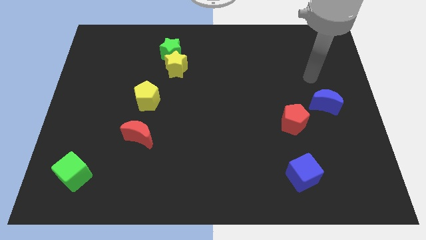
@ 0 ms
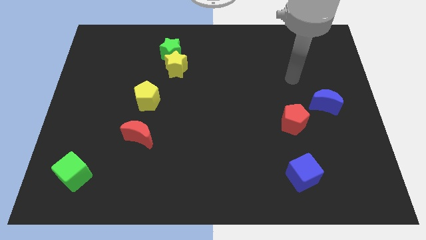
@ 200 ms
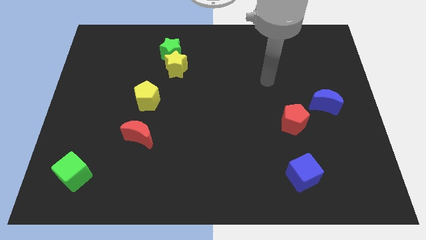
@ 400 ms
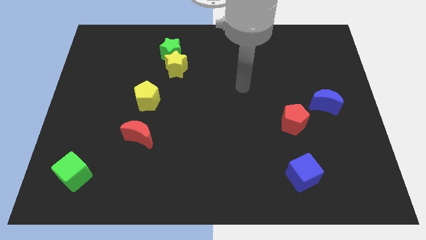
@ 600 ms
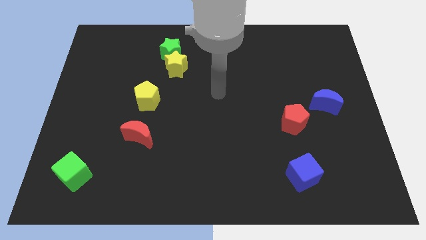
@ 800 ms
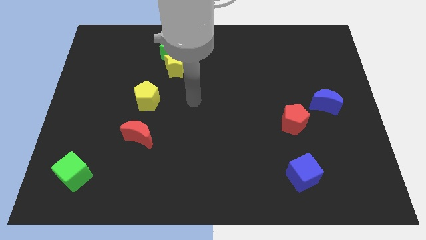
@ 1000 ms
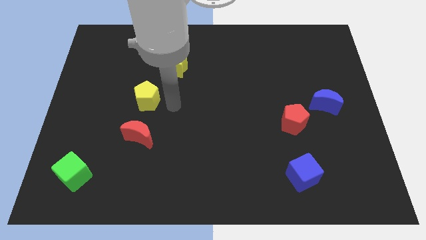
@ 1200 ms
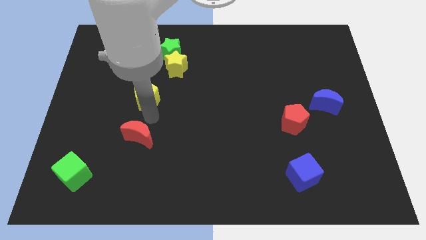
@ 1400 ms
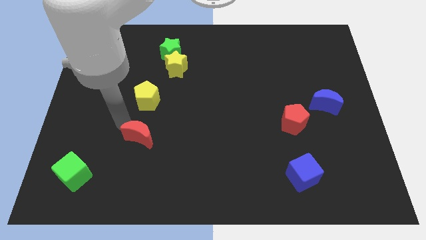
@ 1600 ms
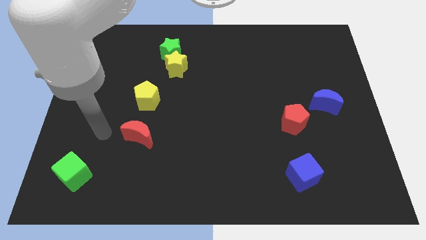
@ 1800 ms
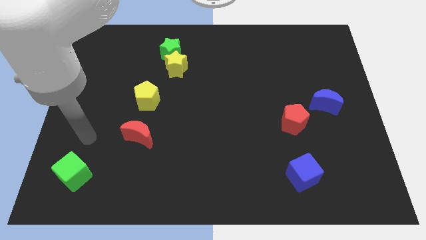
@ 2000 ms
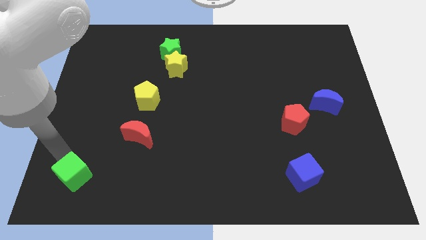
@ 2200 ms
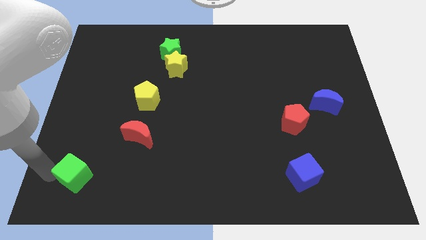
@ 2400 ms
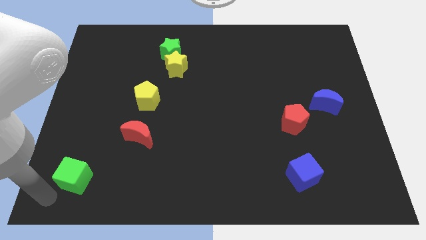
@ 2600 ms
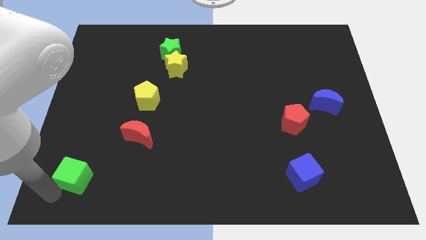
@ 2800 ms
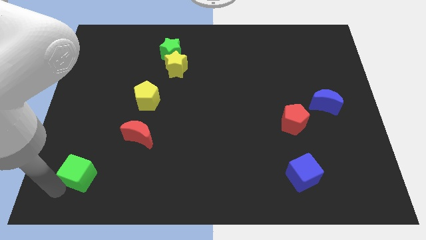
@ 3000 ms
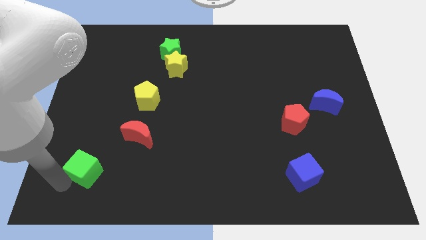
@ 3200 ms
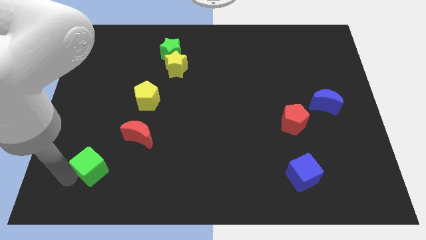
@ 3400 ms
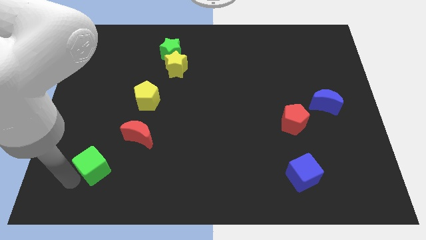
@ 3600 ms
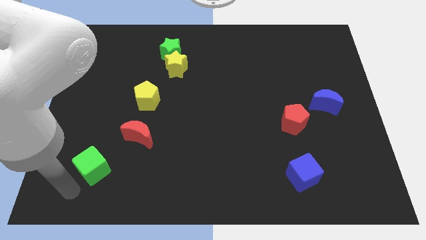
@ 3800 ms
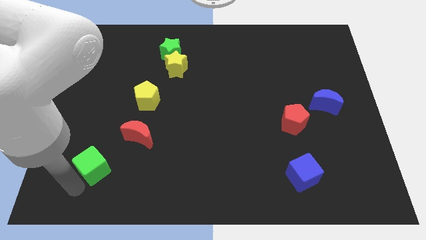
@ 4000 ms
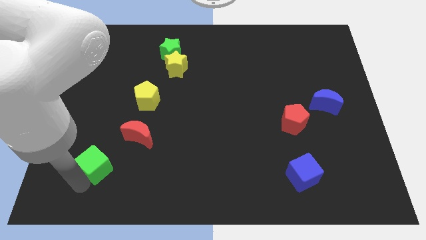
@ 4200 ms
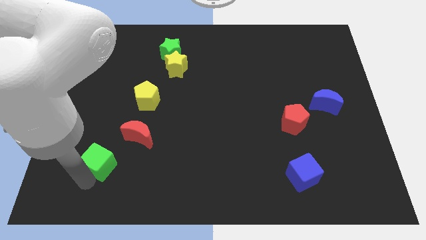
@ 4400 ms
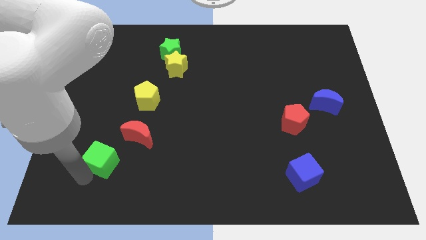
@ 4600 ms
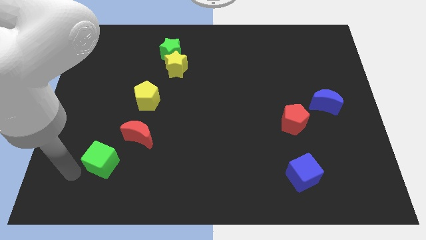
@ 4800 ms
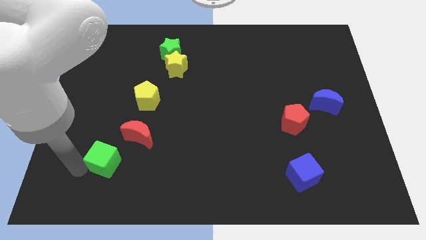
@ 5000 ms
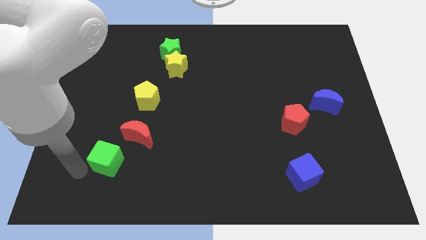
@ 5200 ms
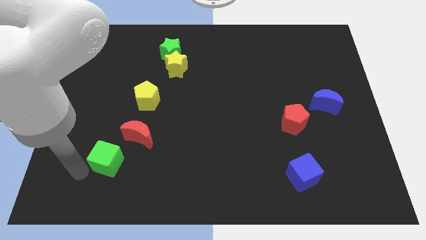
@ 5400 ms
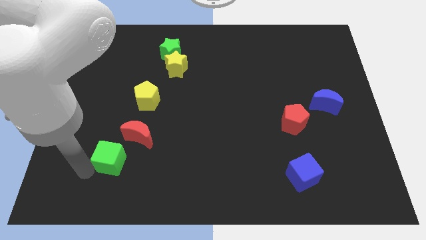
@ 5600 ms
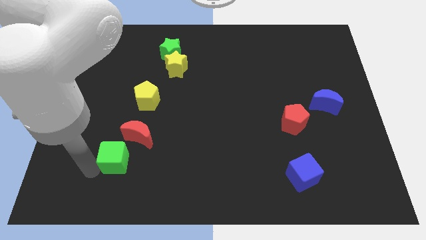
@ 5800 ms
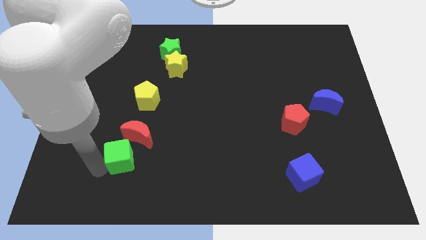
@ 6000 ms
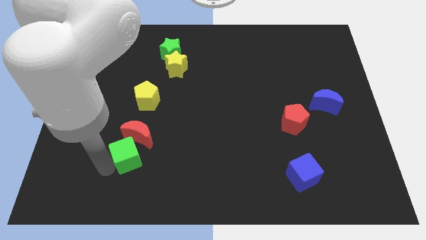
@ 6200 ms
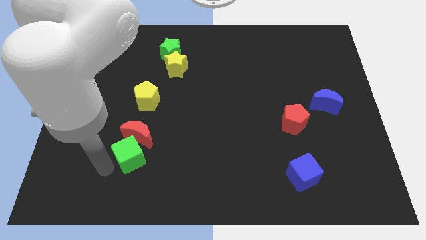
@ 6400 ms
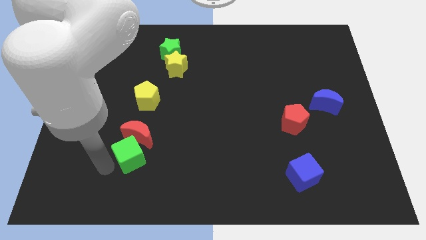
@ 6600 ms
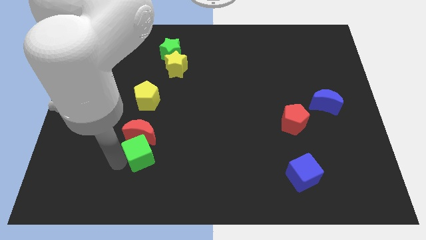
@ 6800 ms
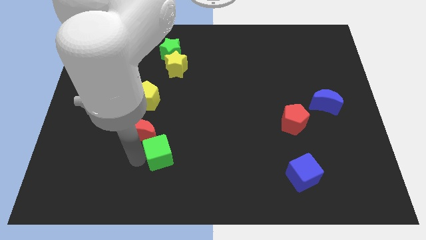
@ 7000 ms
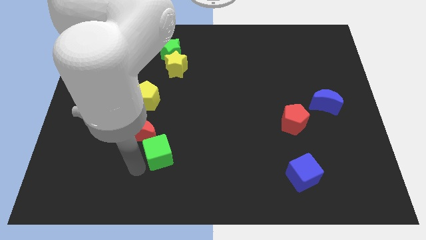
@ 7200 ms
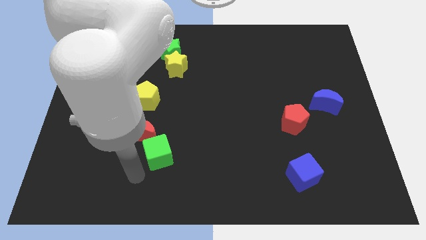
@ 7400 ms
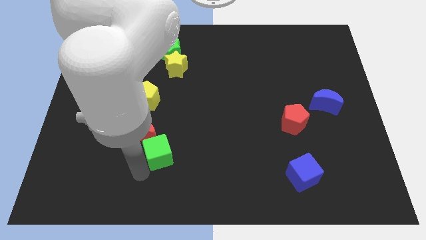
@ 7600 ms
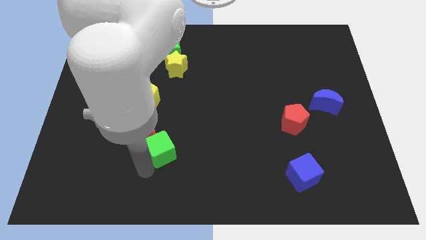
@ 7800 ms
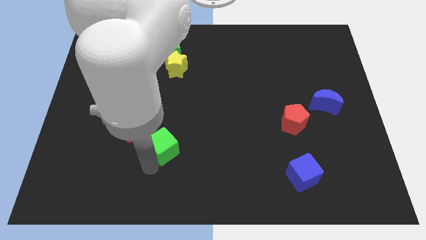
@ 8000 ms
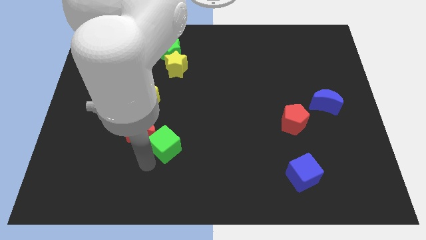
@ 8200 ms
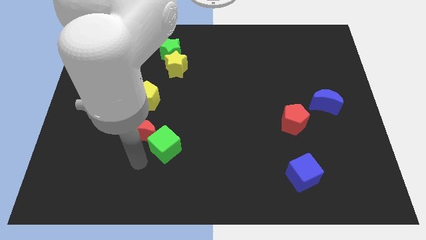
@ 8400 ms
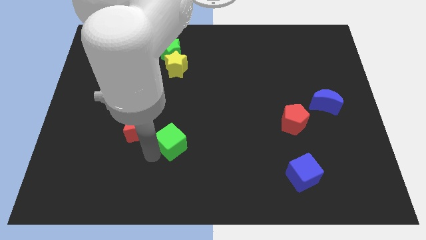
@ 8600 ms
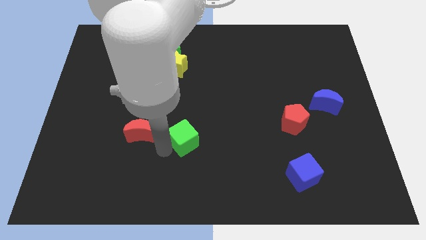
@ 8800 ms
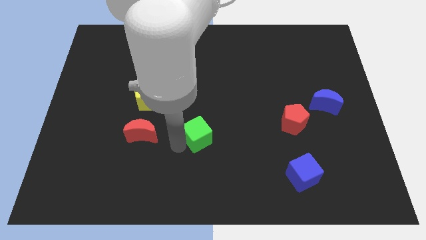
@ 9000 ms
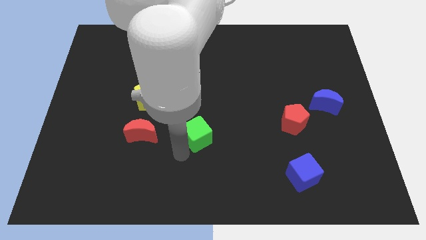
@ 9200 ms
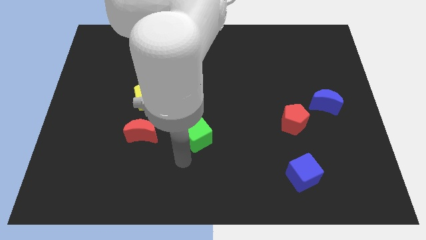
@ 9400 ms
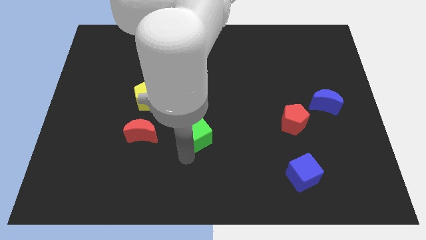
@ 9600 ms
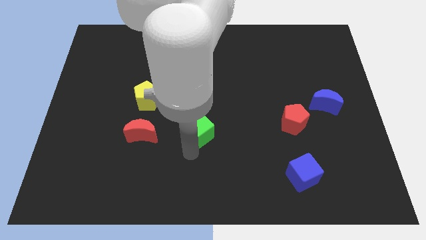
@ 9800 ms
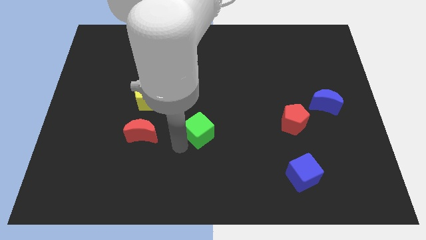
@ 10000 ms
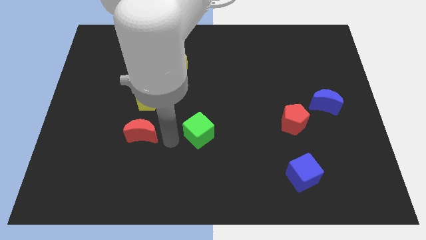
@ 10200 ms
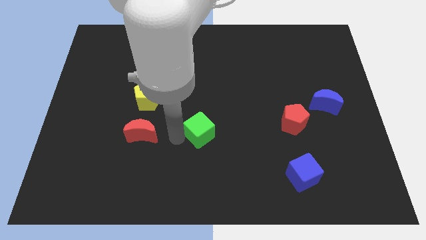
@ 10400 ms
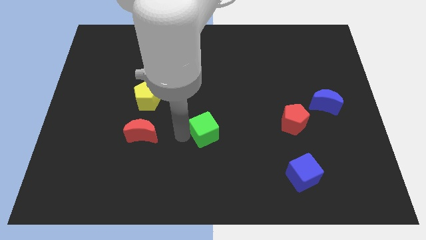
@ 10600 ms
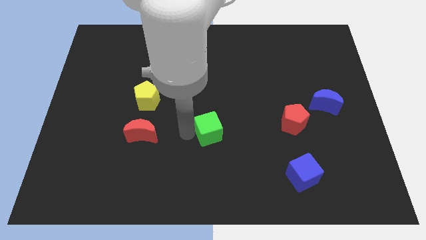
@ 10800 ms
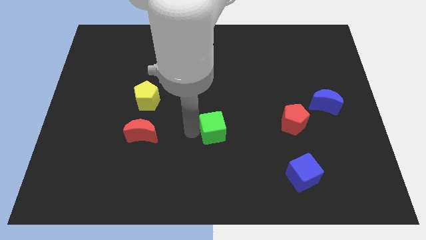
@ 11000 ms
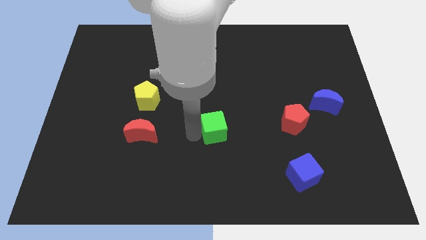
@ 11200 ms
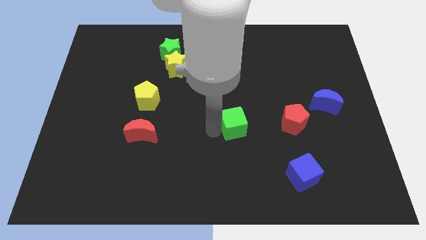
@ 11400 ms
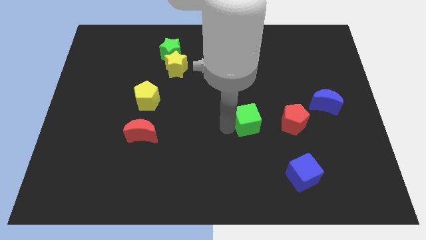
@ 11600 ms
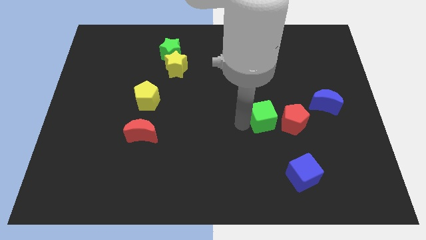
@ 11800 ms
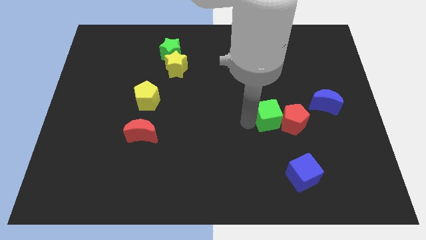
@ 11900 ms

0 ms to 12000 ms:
move the green cube towards the red pentagon

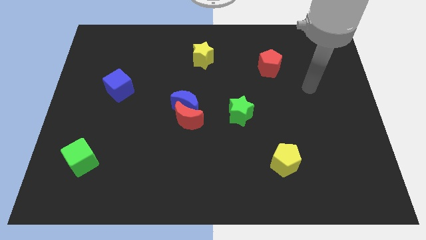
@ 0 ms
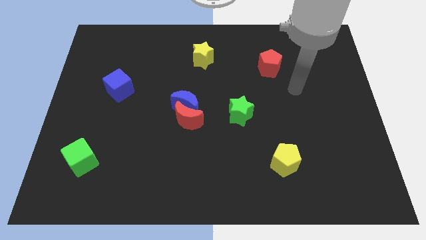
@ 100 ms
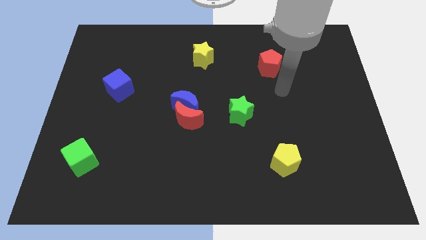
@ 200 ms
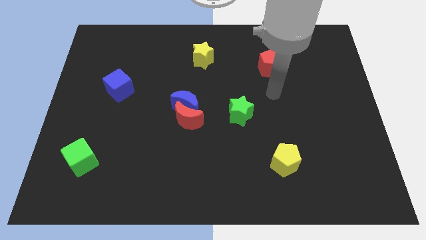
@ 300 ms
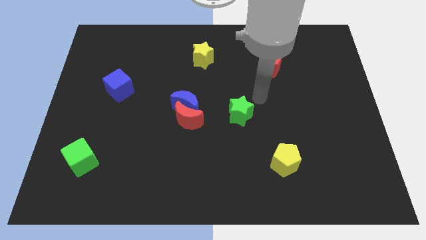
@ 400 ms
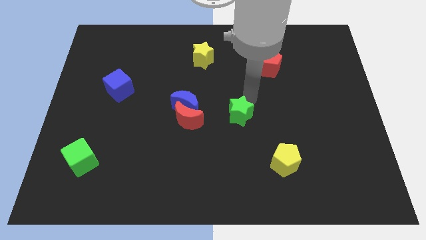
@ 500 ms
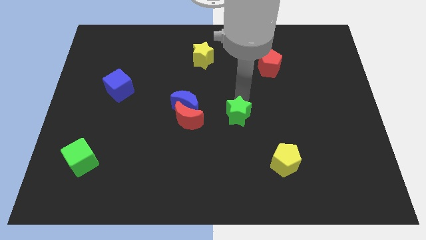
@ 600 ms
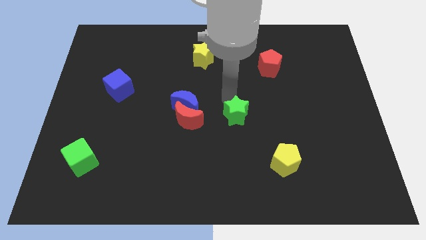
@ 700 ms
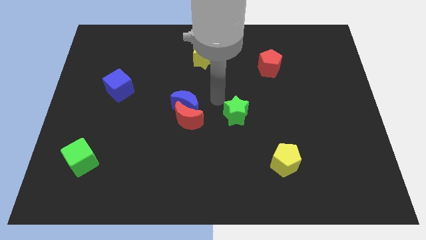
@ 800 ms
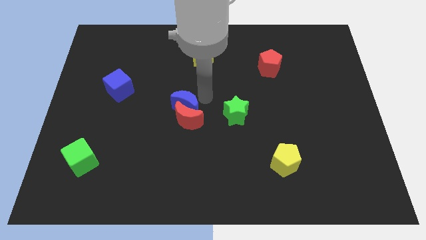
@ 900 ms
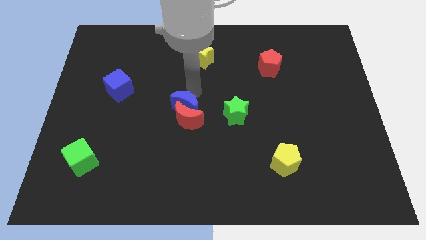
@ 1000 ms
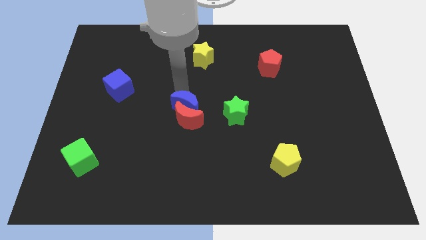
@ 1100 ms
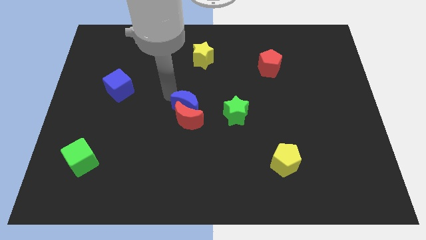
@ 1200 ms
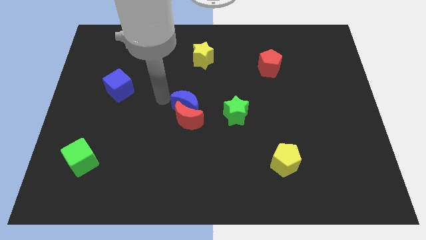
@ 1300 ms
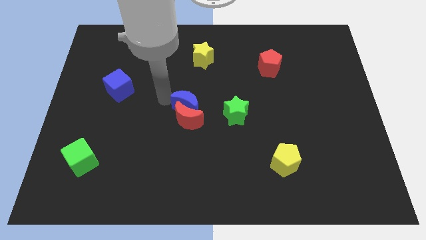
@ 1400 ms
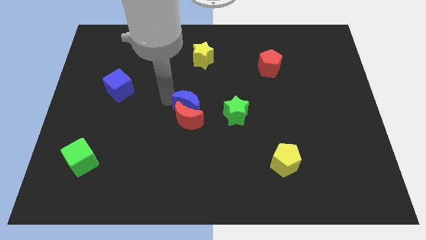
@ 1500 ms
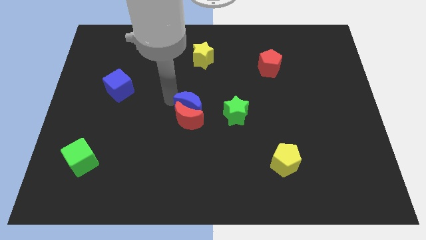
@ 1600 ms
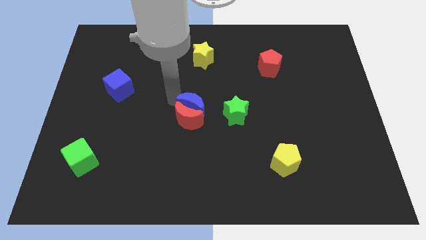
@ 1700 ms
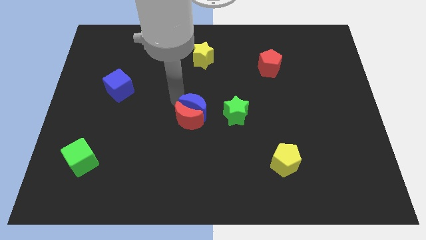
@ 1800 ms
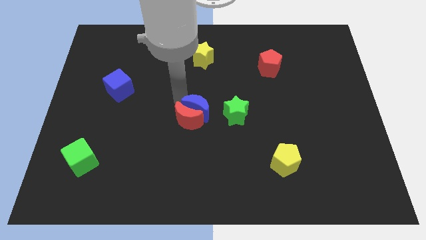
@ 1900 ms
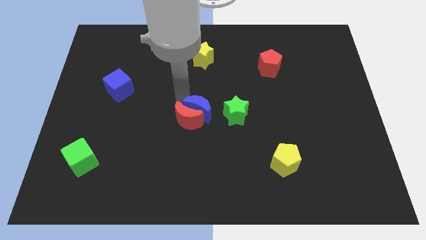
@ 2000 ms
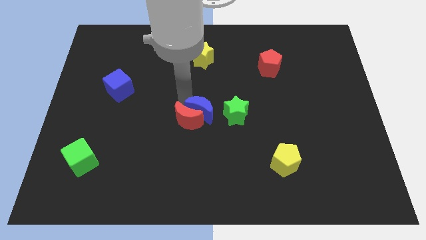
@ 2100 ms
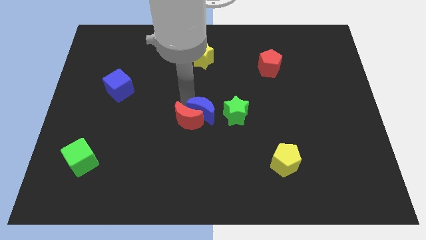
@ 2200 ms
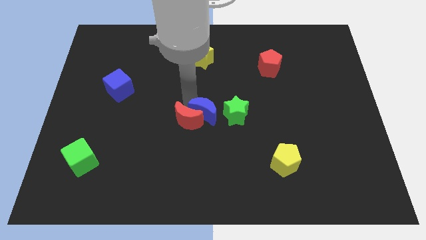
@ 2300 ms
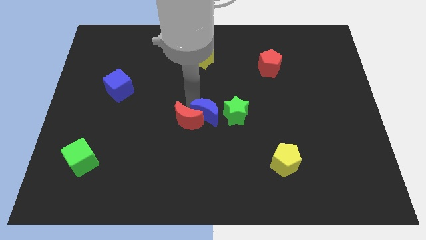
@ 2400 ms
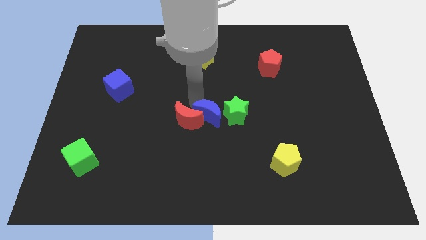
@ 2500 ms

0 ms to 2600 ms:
slide the blue moon to the green star
